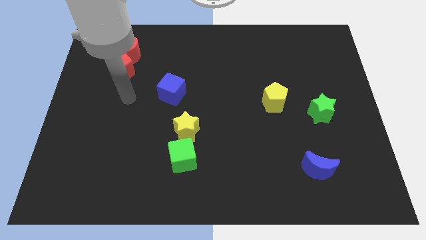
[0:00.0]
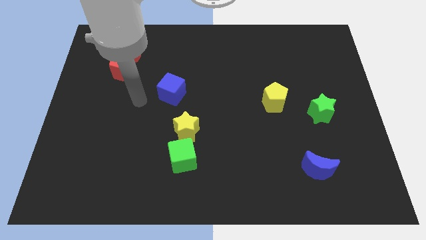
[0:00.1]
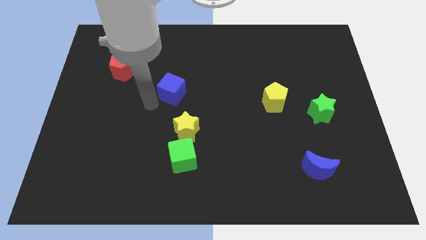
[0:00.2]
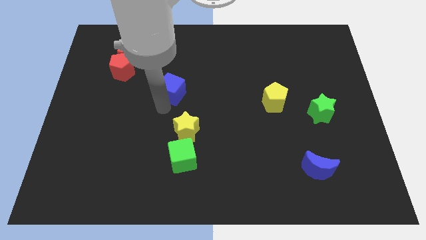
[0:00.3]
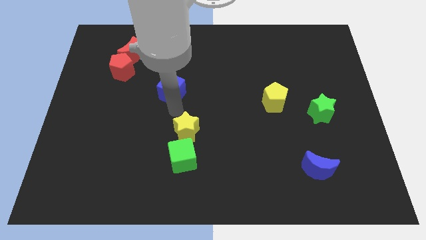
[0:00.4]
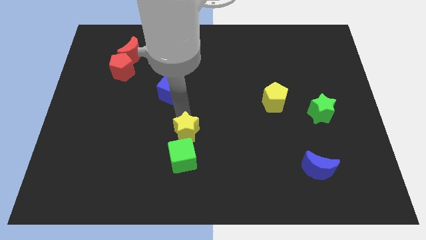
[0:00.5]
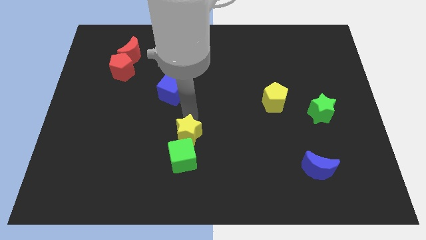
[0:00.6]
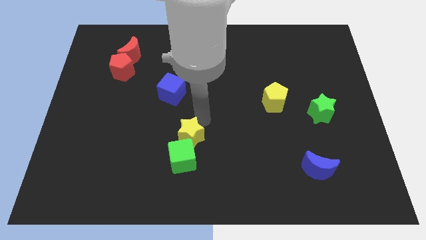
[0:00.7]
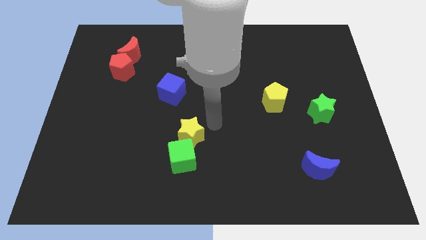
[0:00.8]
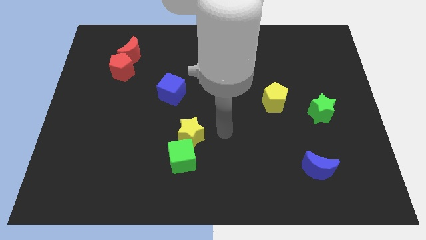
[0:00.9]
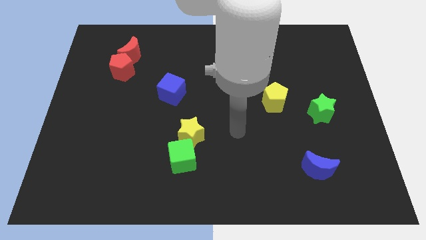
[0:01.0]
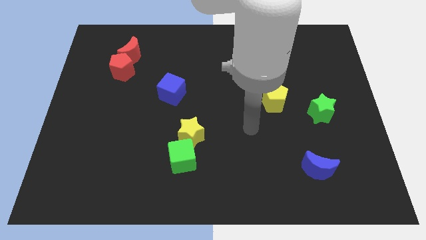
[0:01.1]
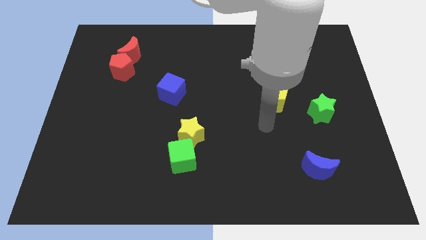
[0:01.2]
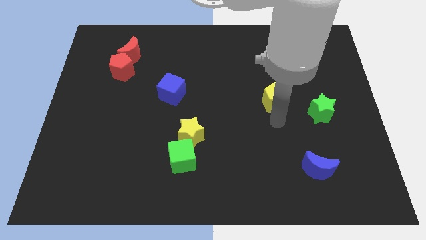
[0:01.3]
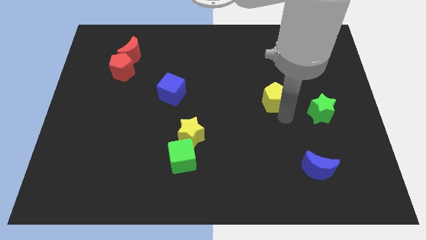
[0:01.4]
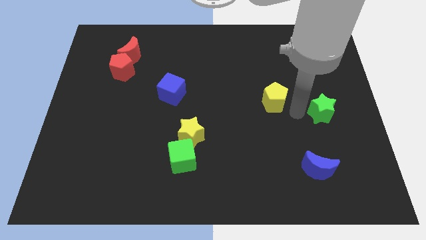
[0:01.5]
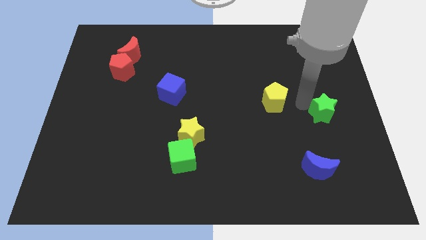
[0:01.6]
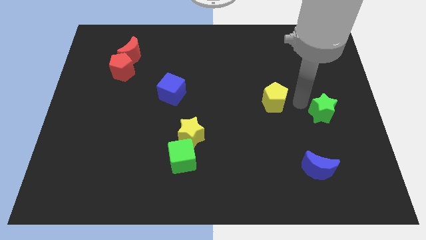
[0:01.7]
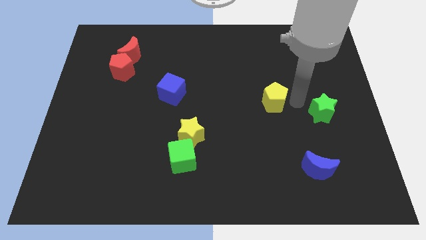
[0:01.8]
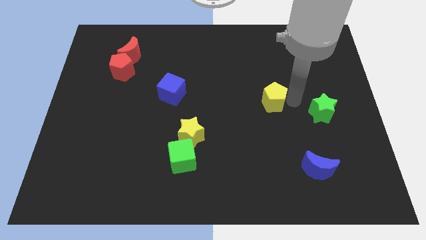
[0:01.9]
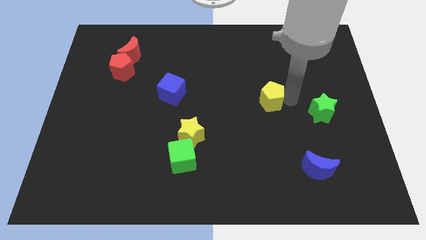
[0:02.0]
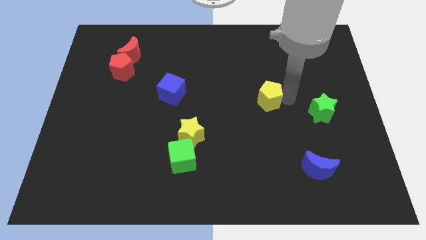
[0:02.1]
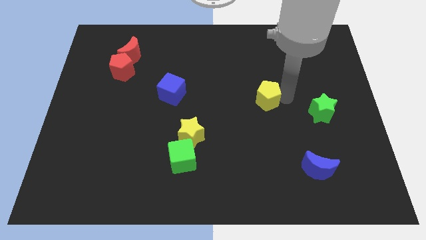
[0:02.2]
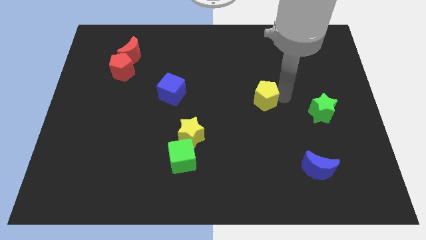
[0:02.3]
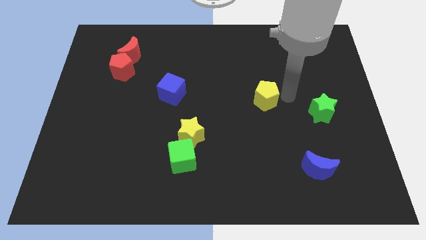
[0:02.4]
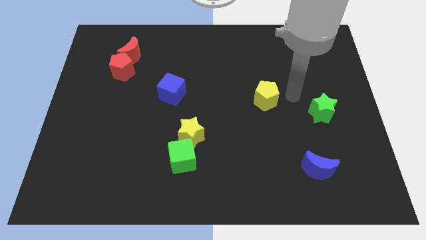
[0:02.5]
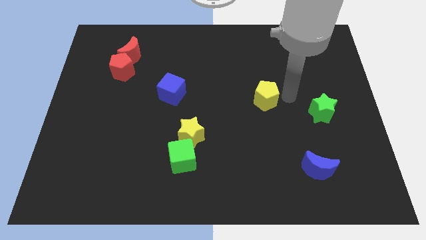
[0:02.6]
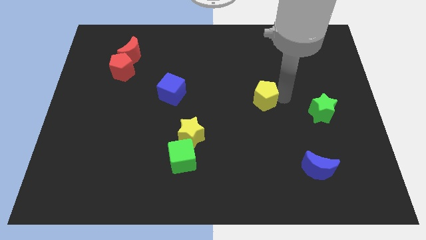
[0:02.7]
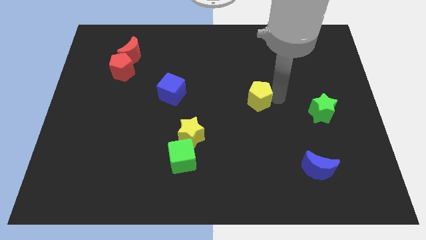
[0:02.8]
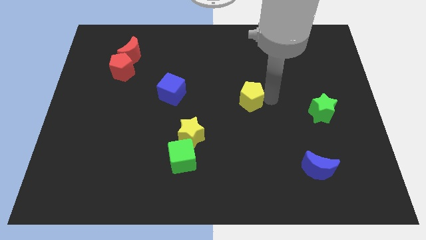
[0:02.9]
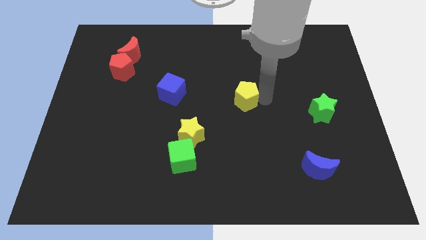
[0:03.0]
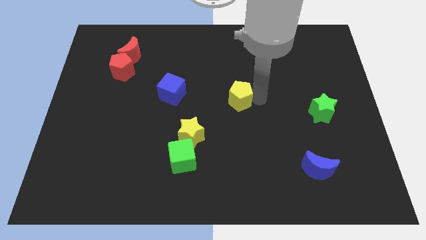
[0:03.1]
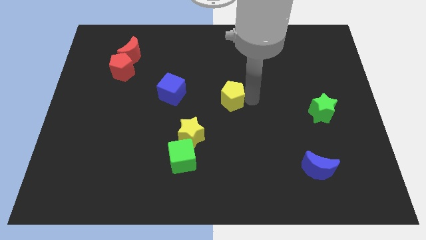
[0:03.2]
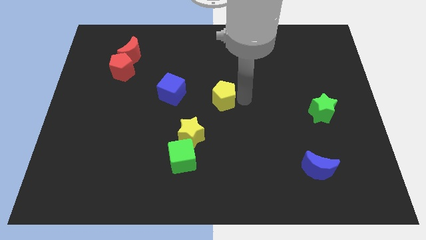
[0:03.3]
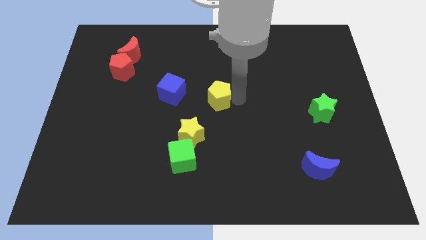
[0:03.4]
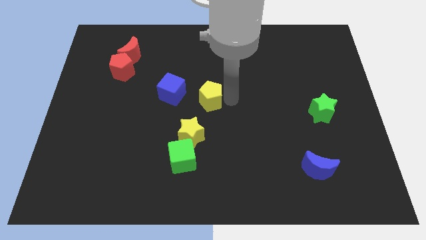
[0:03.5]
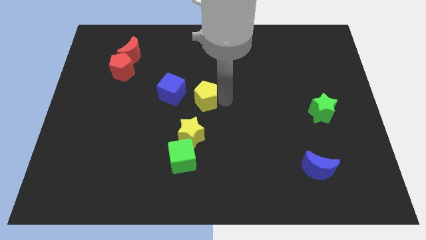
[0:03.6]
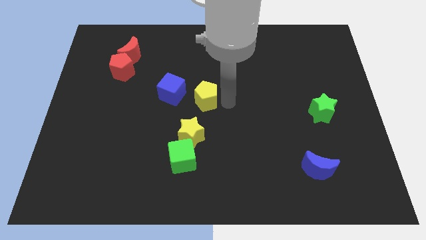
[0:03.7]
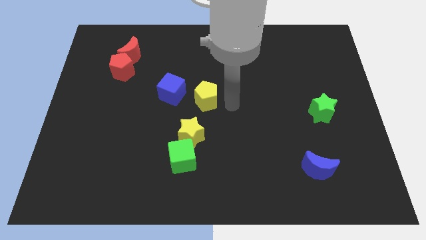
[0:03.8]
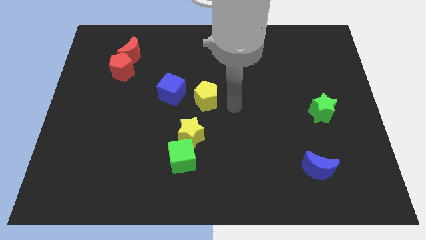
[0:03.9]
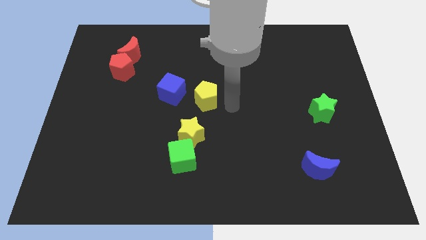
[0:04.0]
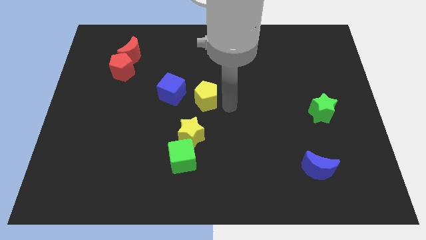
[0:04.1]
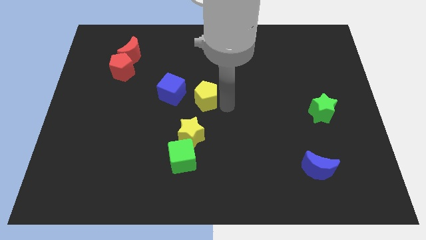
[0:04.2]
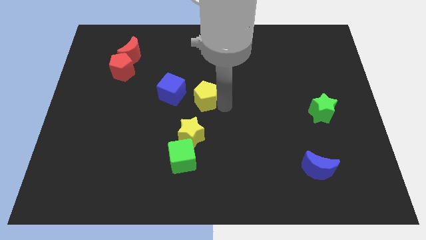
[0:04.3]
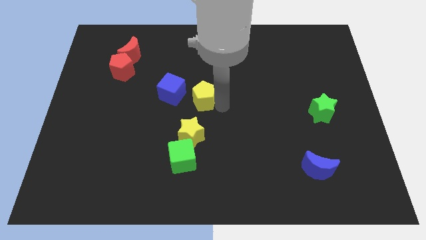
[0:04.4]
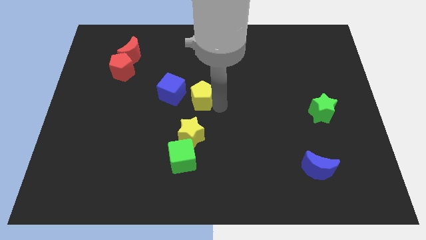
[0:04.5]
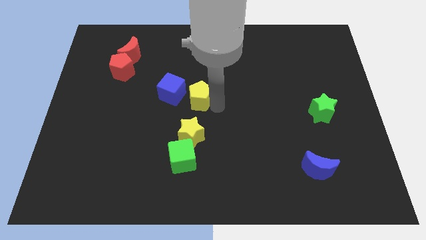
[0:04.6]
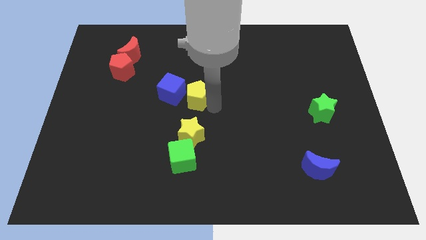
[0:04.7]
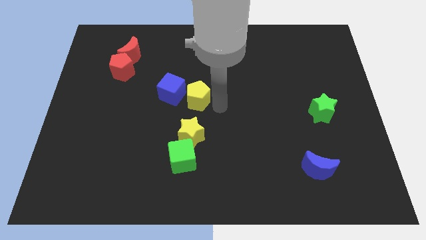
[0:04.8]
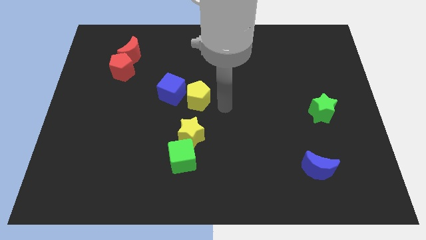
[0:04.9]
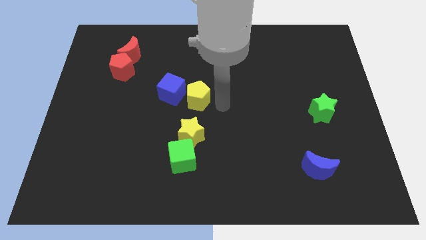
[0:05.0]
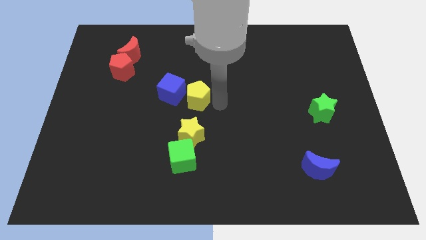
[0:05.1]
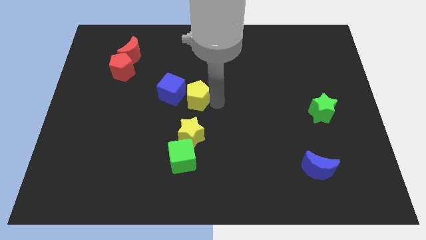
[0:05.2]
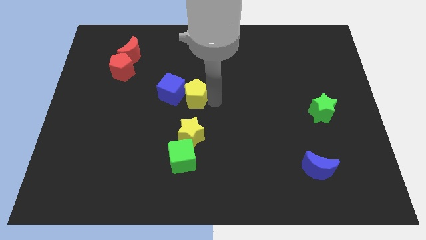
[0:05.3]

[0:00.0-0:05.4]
push the yellow pentagon close to the blue cube

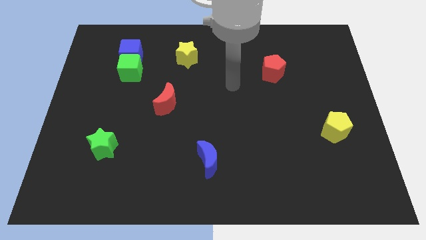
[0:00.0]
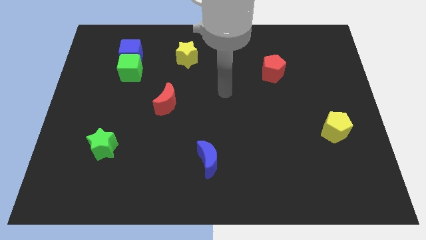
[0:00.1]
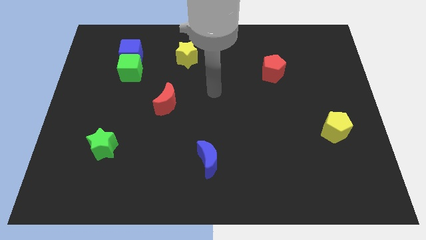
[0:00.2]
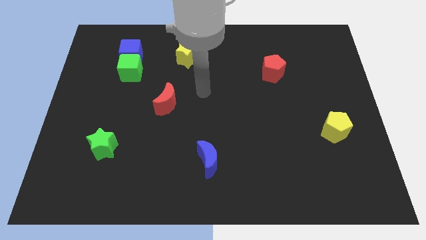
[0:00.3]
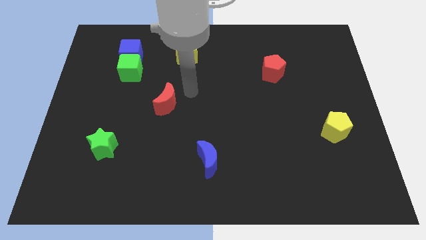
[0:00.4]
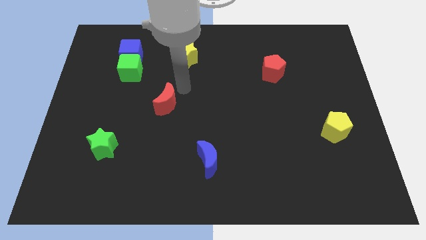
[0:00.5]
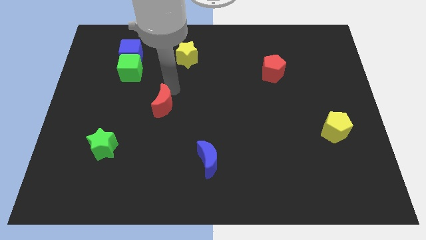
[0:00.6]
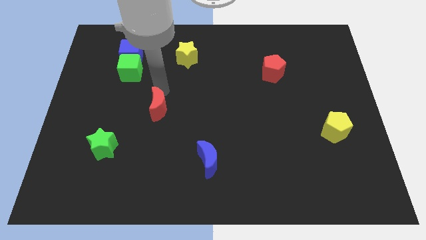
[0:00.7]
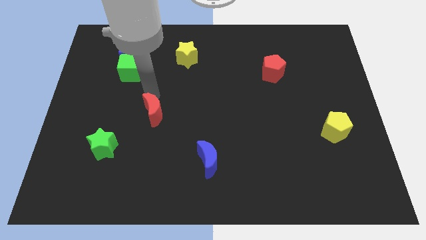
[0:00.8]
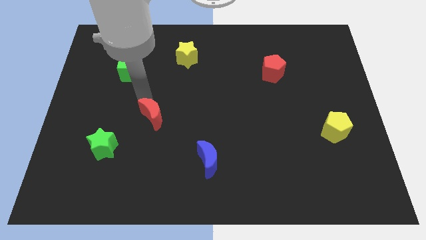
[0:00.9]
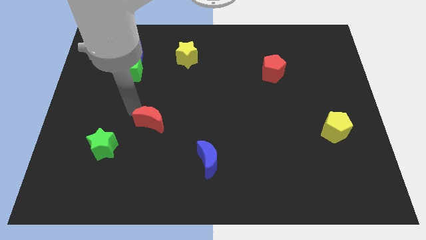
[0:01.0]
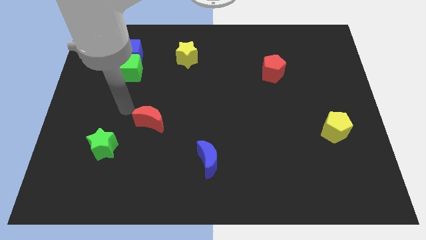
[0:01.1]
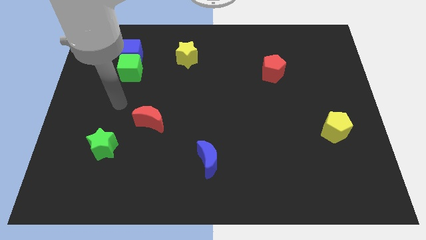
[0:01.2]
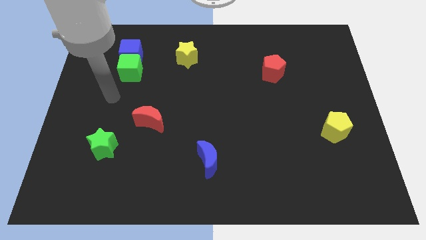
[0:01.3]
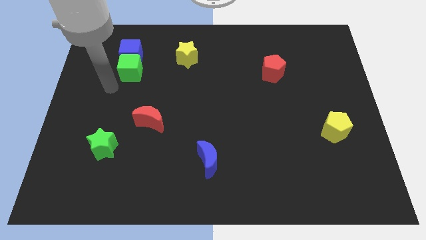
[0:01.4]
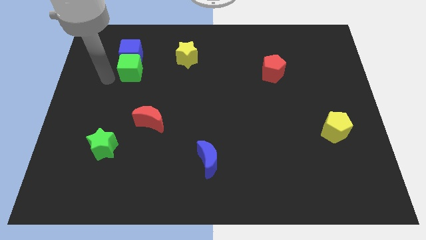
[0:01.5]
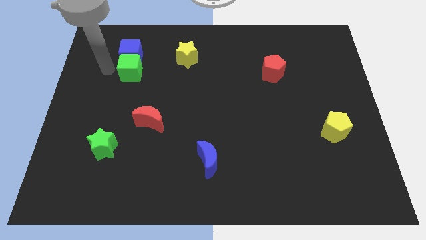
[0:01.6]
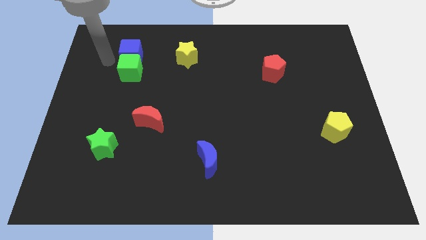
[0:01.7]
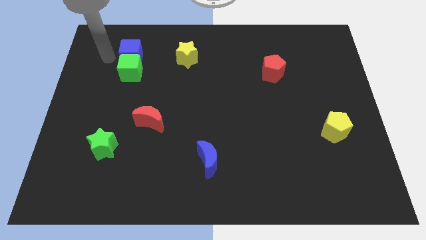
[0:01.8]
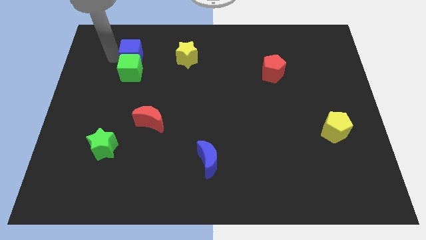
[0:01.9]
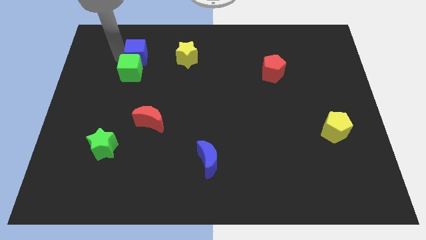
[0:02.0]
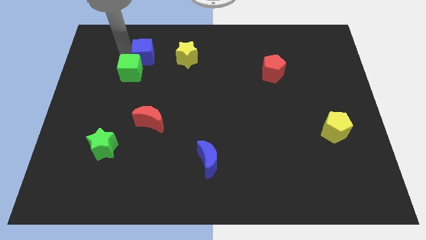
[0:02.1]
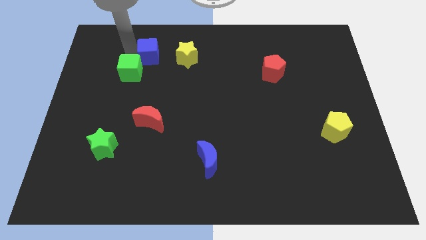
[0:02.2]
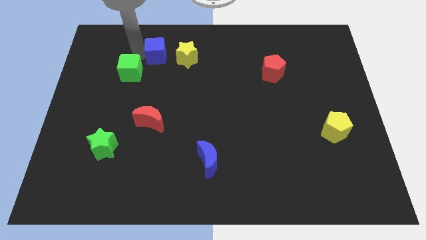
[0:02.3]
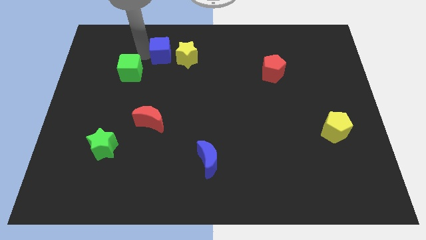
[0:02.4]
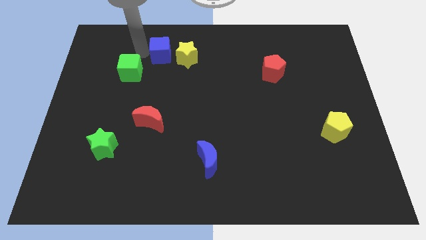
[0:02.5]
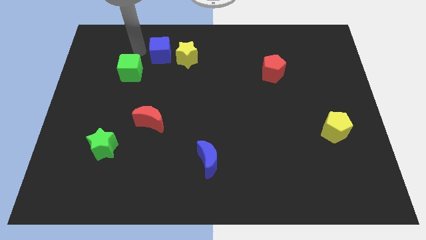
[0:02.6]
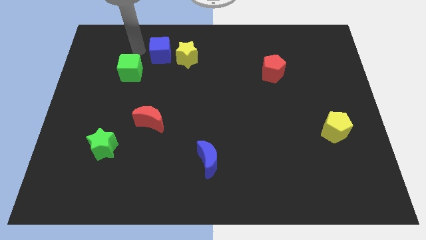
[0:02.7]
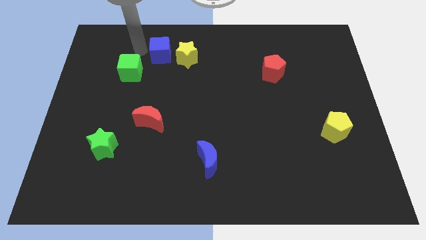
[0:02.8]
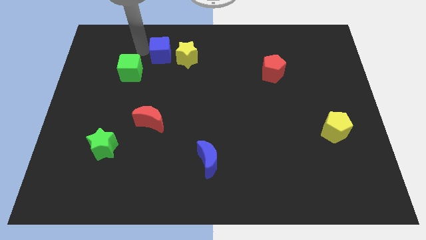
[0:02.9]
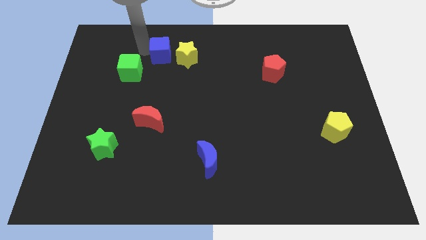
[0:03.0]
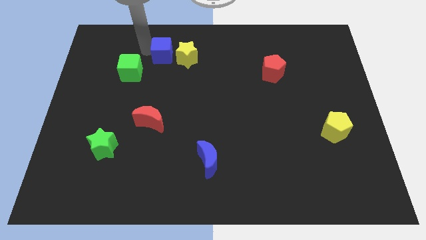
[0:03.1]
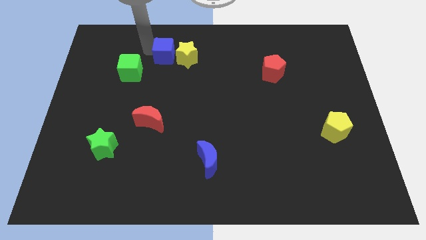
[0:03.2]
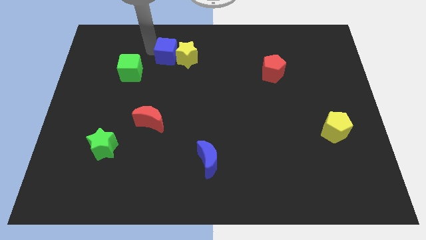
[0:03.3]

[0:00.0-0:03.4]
put the blue cube to the yellow star
